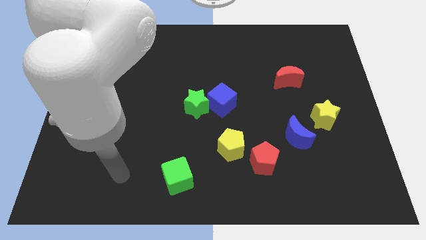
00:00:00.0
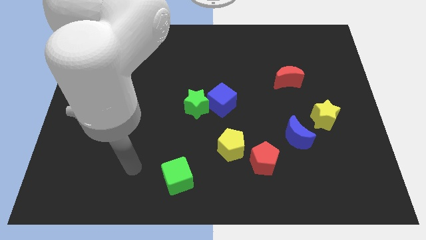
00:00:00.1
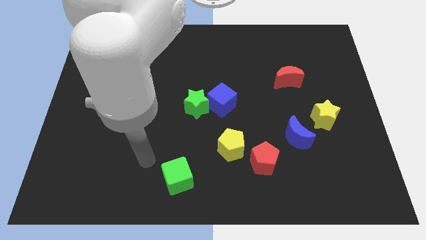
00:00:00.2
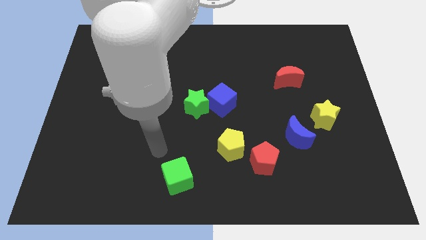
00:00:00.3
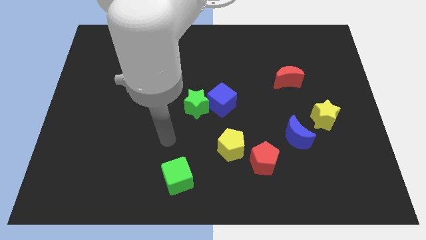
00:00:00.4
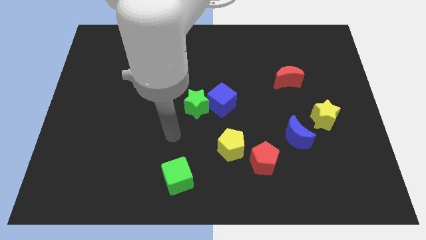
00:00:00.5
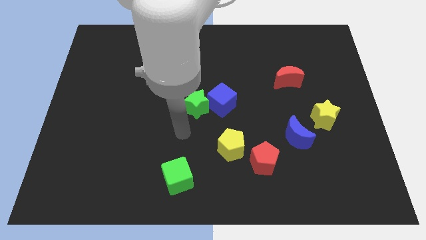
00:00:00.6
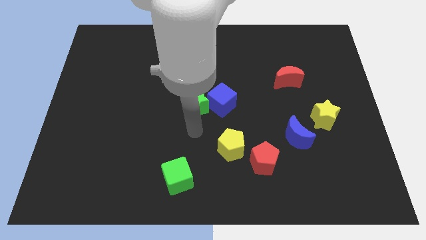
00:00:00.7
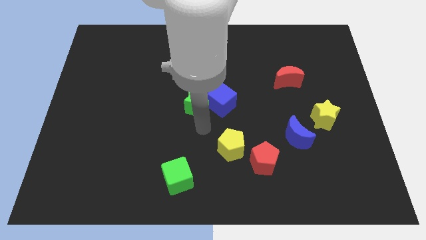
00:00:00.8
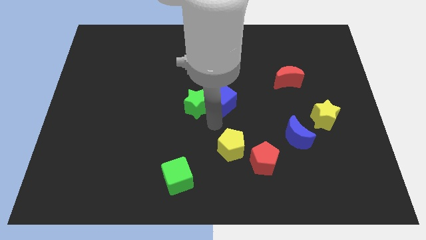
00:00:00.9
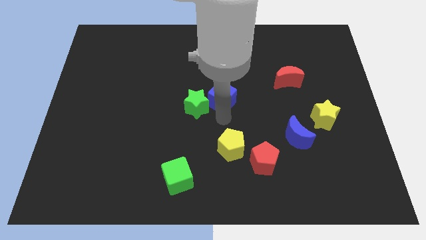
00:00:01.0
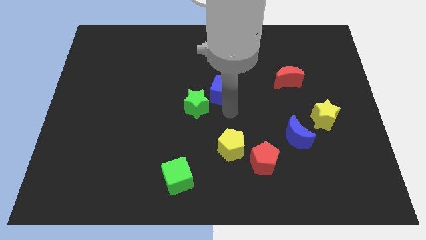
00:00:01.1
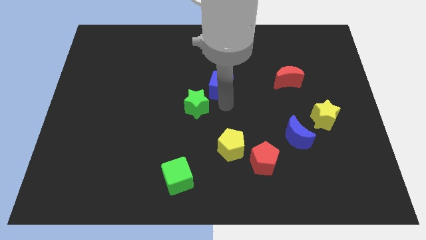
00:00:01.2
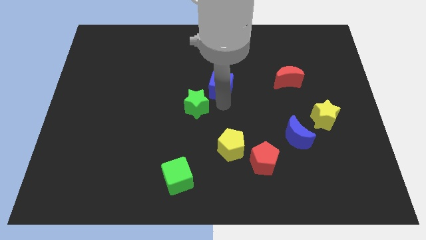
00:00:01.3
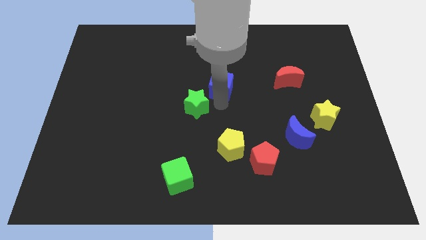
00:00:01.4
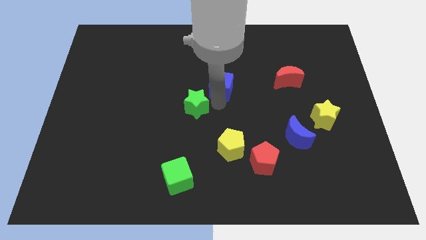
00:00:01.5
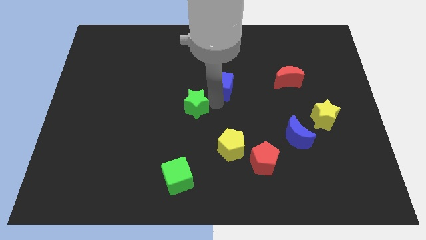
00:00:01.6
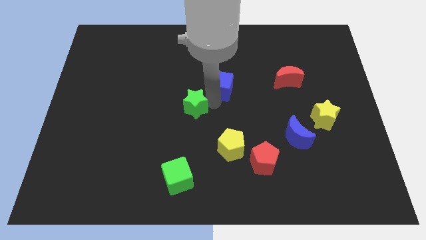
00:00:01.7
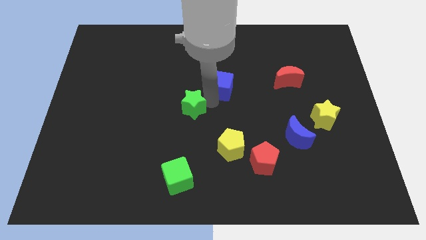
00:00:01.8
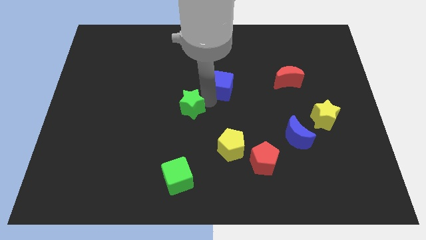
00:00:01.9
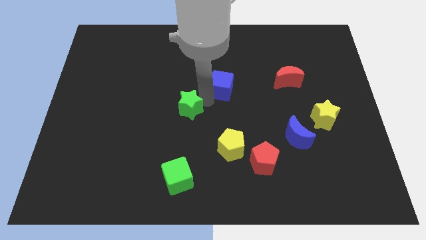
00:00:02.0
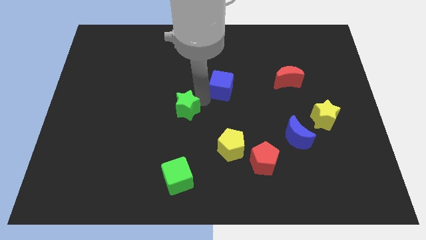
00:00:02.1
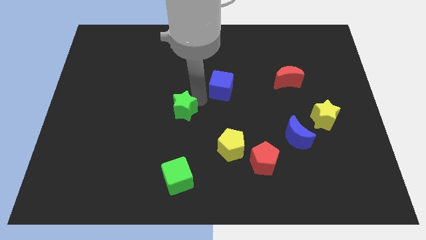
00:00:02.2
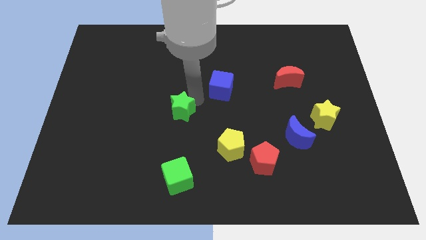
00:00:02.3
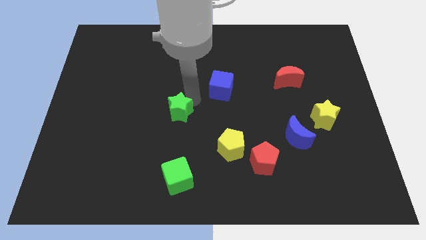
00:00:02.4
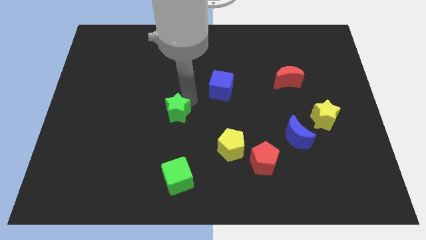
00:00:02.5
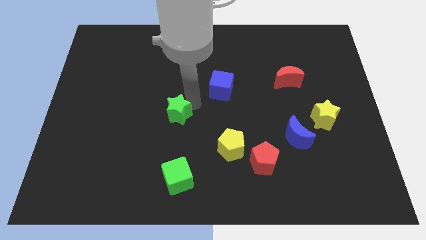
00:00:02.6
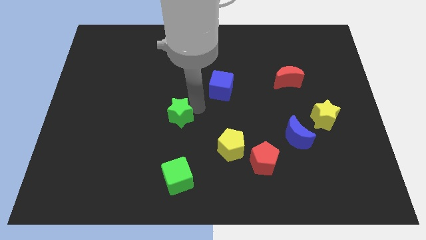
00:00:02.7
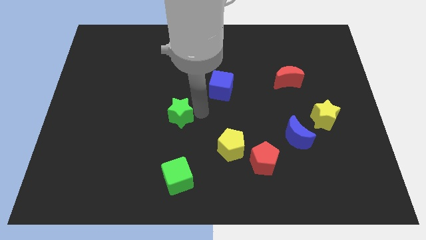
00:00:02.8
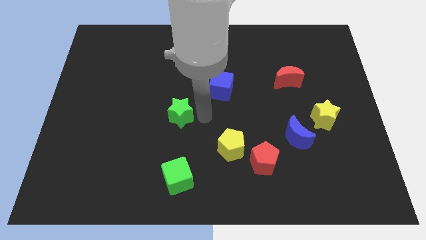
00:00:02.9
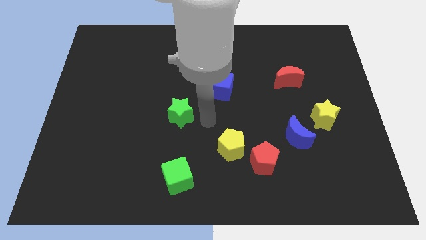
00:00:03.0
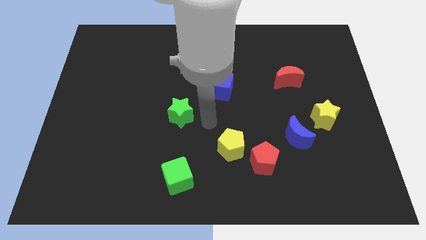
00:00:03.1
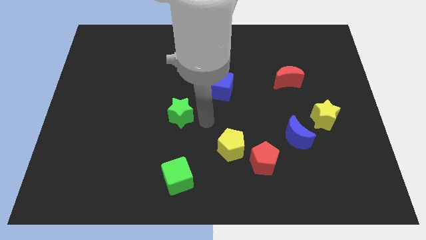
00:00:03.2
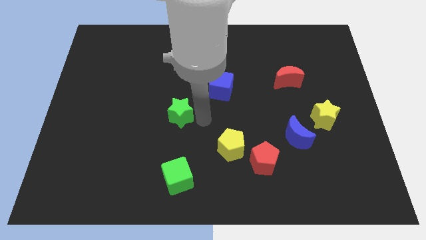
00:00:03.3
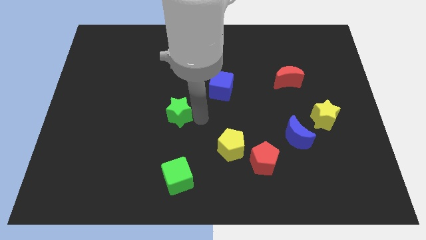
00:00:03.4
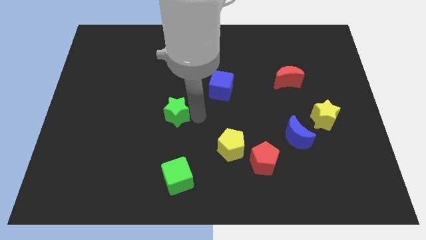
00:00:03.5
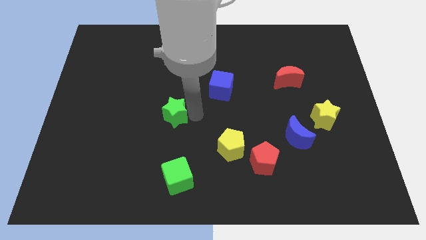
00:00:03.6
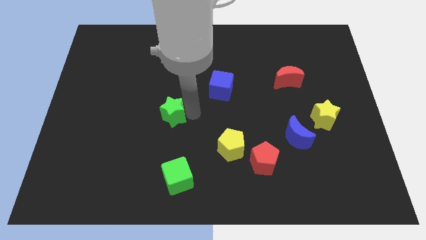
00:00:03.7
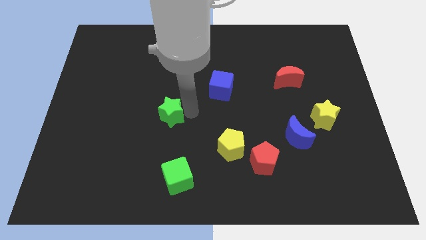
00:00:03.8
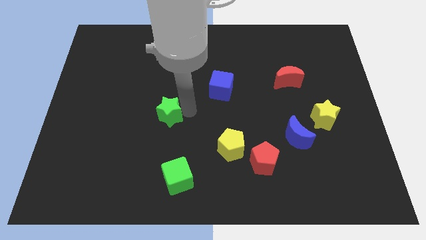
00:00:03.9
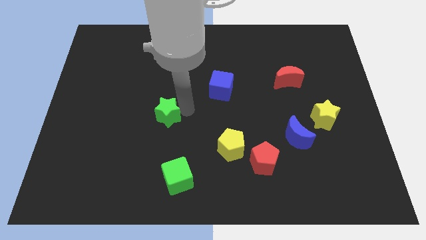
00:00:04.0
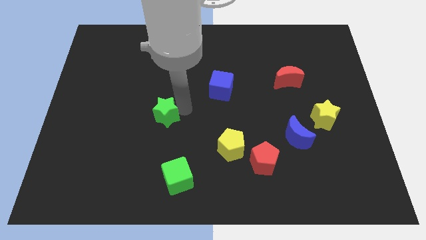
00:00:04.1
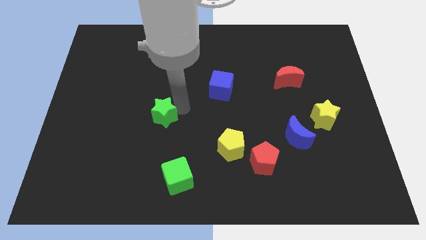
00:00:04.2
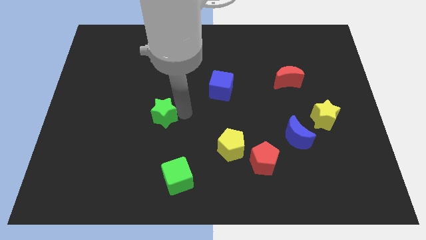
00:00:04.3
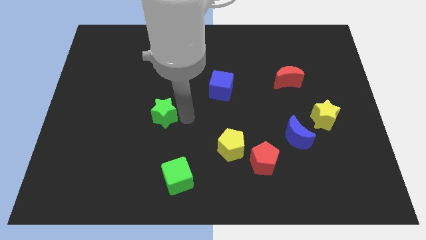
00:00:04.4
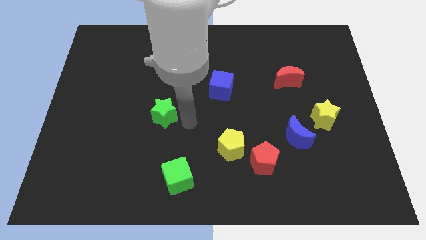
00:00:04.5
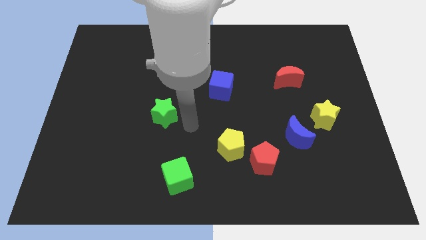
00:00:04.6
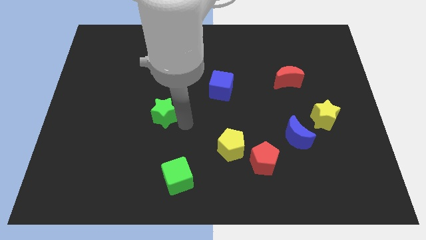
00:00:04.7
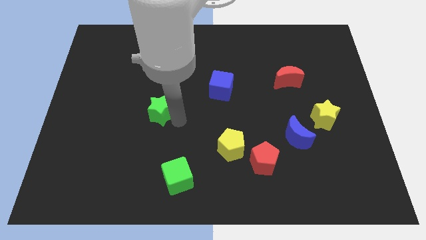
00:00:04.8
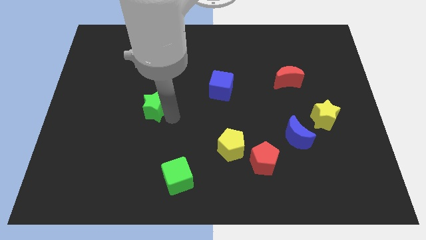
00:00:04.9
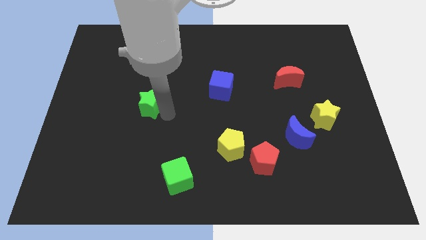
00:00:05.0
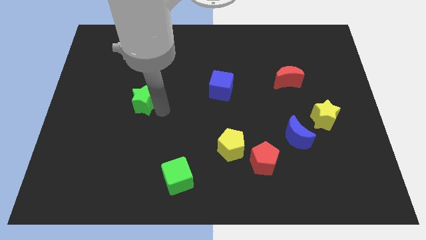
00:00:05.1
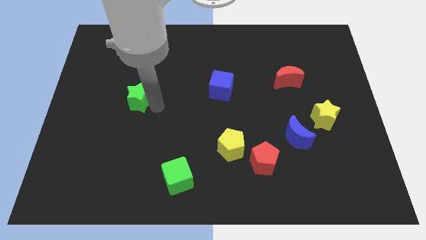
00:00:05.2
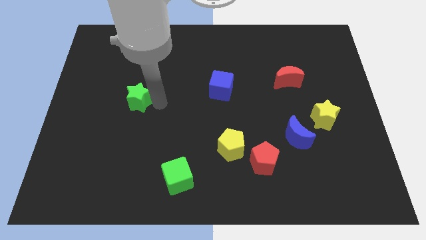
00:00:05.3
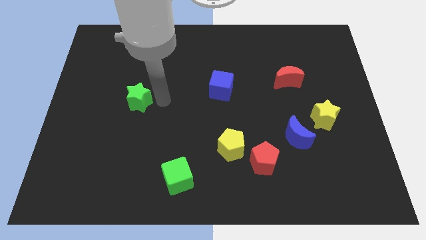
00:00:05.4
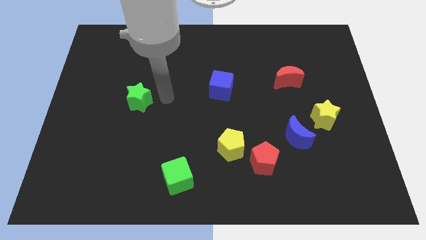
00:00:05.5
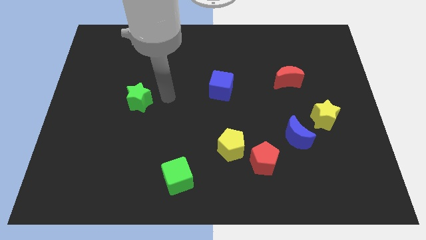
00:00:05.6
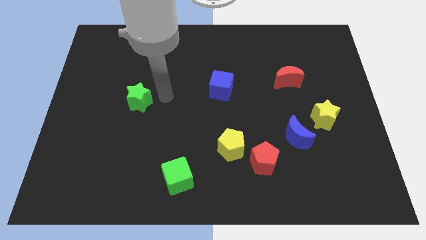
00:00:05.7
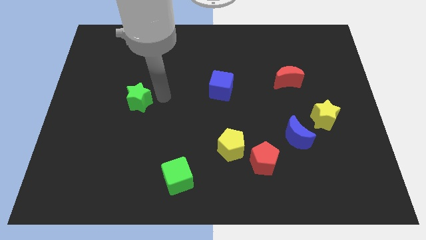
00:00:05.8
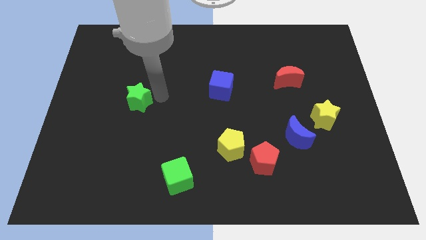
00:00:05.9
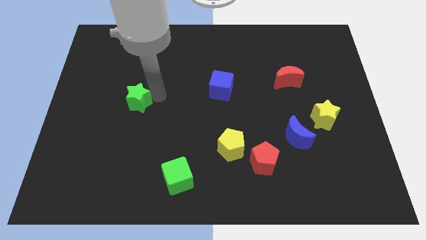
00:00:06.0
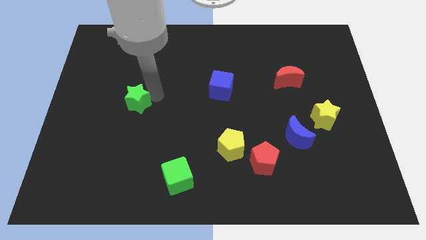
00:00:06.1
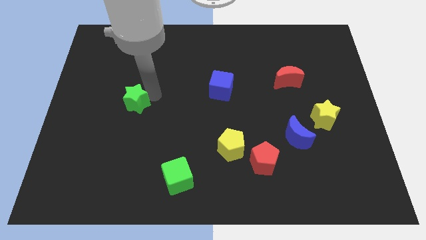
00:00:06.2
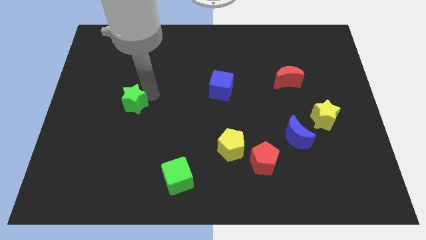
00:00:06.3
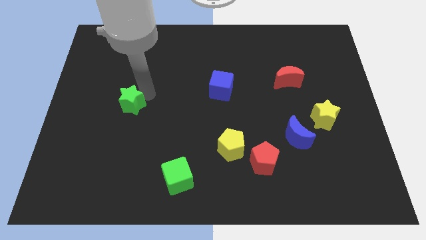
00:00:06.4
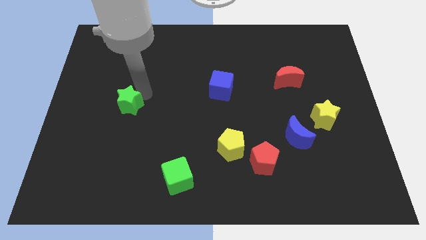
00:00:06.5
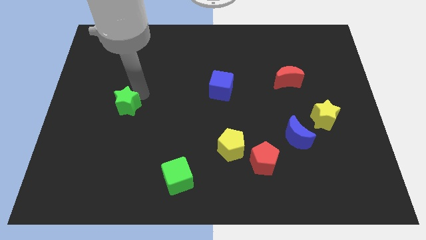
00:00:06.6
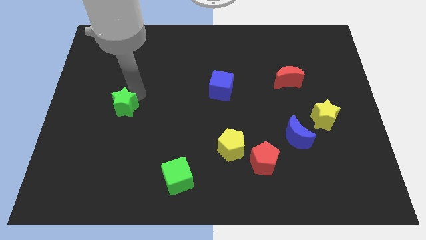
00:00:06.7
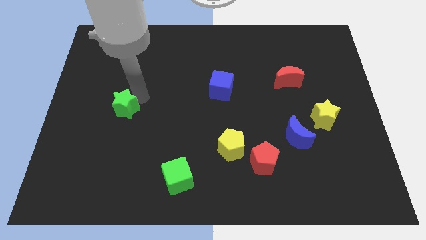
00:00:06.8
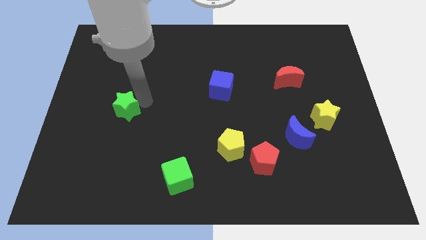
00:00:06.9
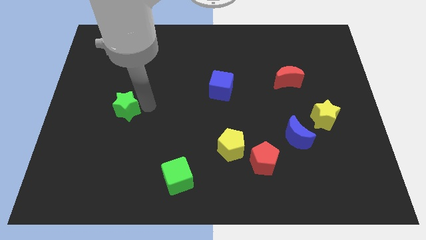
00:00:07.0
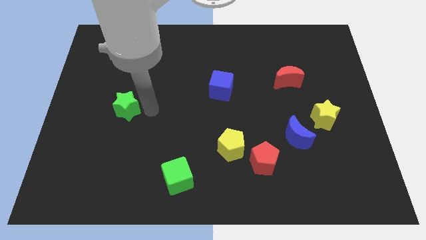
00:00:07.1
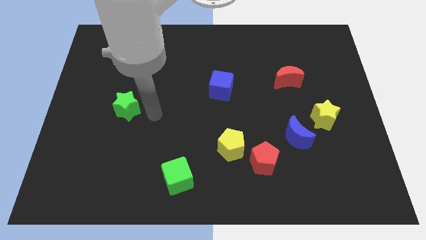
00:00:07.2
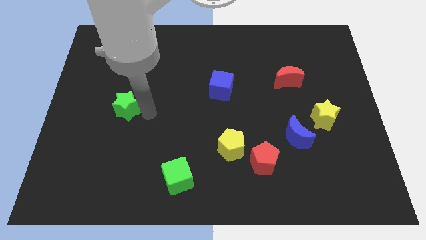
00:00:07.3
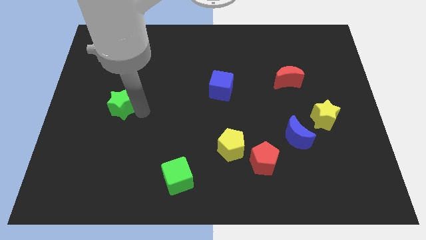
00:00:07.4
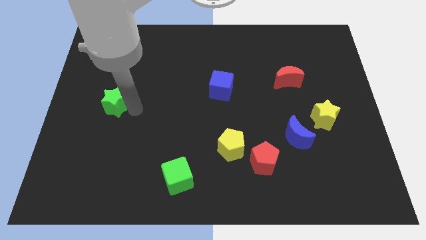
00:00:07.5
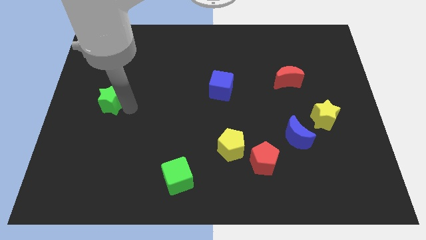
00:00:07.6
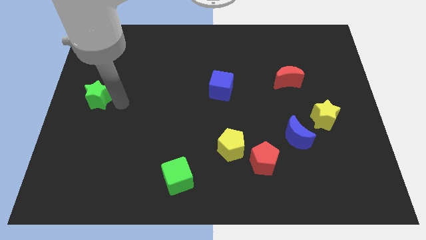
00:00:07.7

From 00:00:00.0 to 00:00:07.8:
put the green star to the left side
